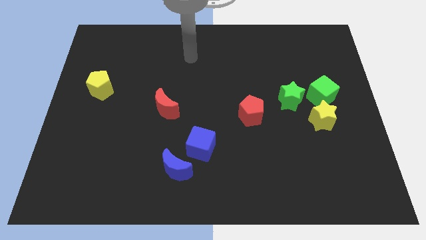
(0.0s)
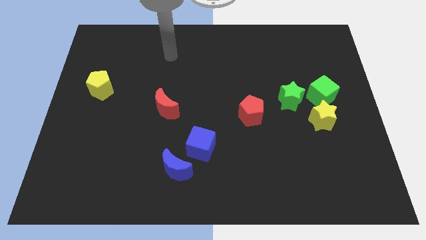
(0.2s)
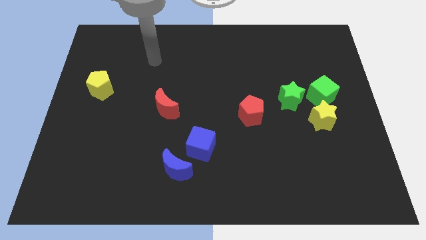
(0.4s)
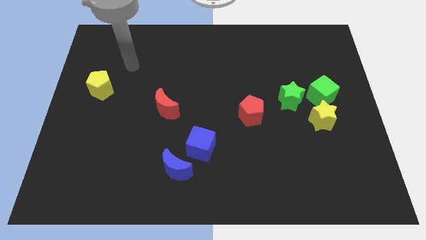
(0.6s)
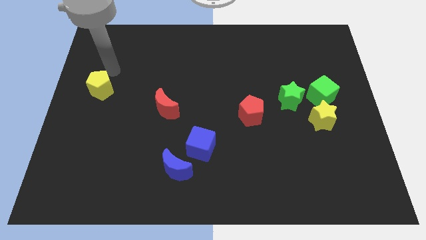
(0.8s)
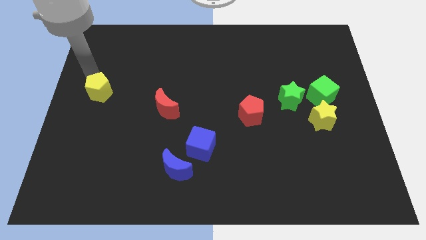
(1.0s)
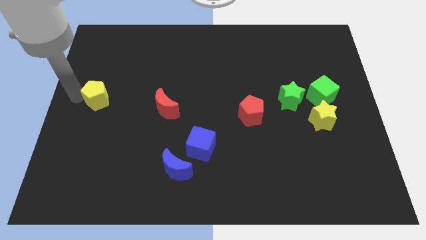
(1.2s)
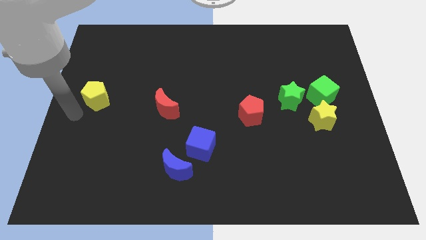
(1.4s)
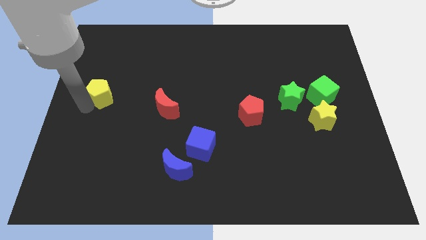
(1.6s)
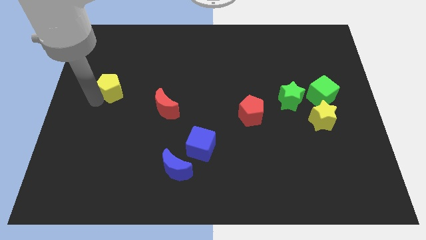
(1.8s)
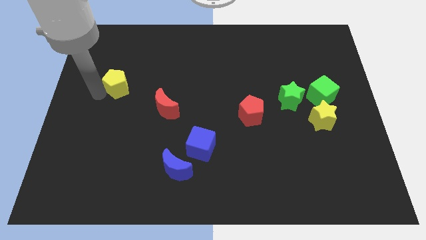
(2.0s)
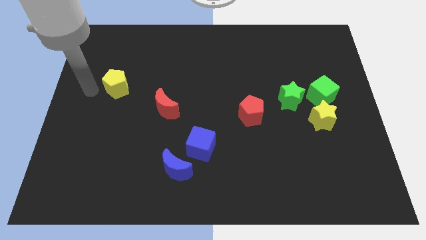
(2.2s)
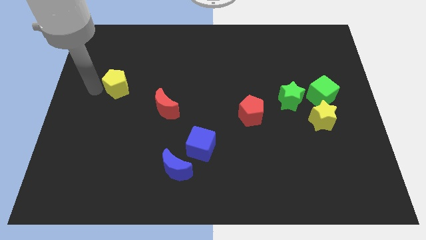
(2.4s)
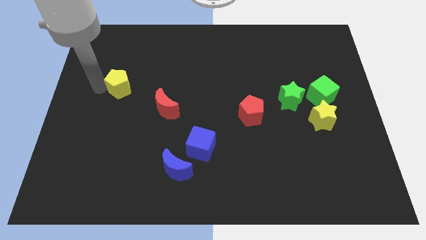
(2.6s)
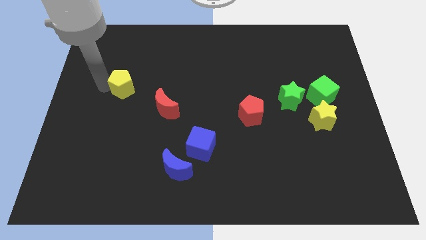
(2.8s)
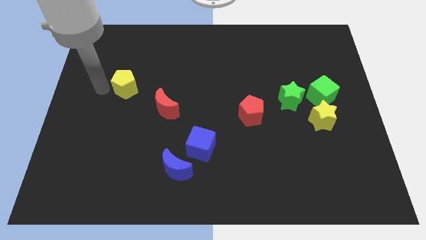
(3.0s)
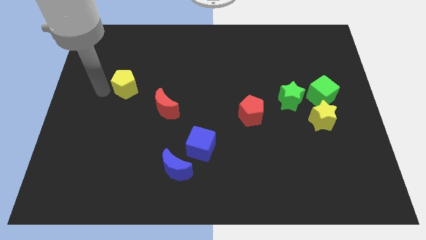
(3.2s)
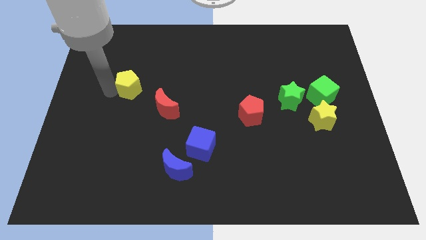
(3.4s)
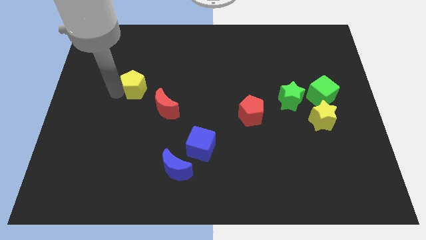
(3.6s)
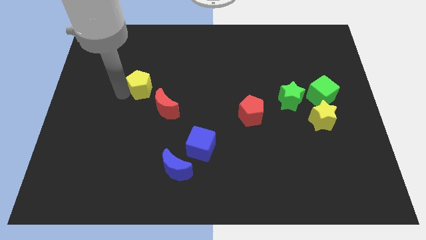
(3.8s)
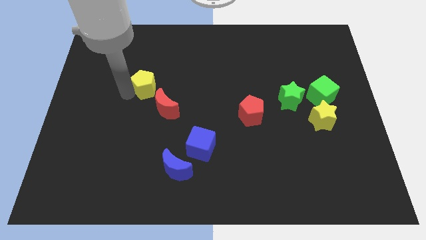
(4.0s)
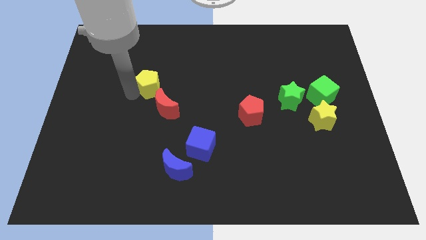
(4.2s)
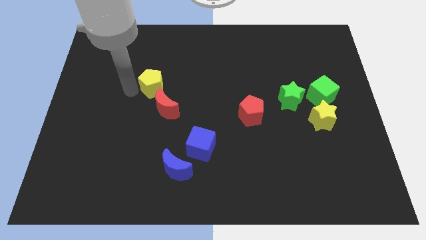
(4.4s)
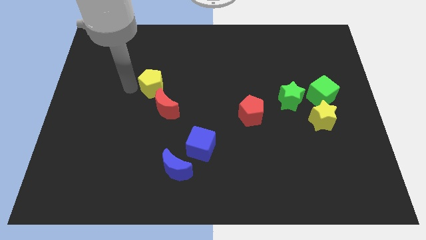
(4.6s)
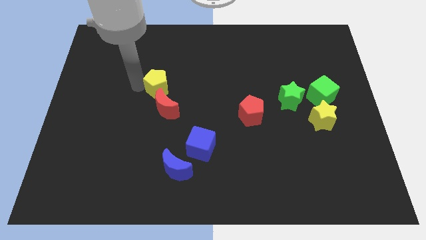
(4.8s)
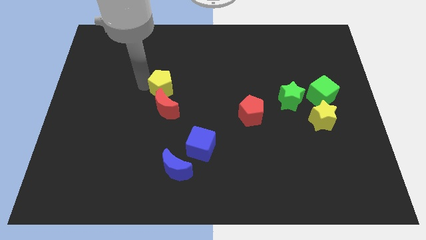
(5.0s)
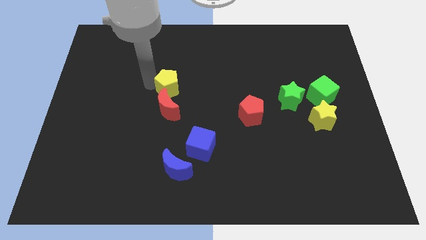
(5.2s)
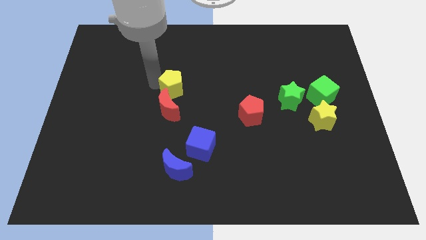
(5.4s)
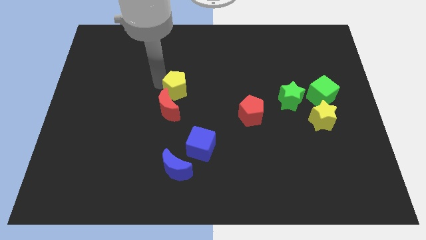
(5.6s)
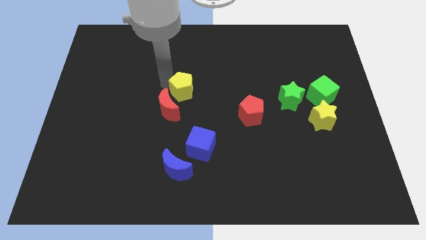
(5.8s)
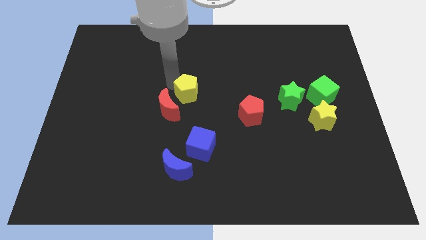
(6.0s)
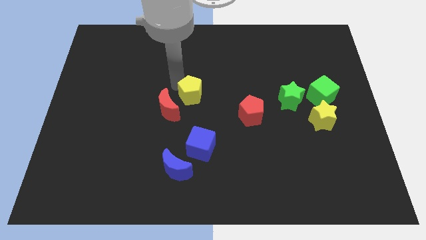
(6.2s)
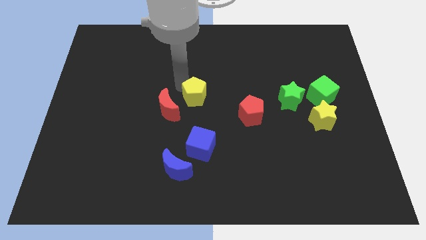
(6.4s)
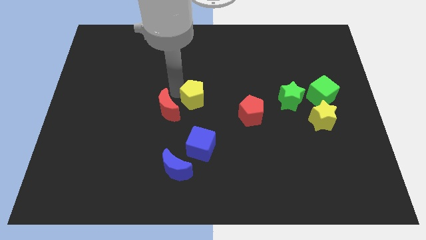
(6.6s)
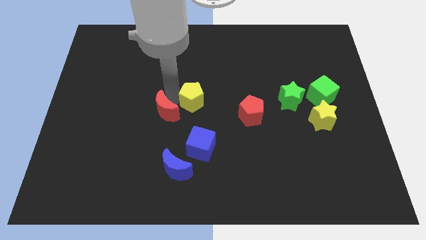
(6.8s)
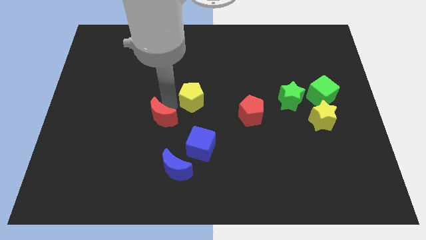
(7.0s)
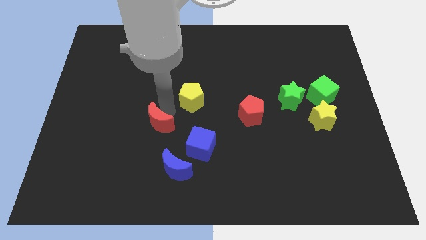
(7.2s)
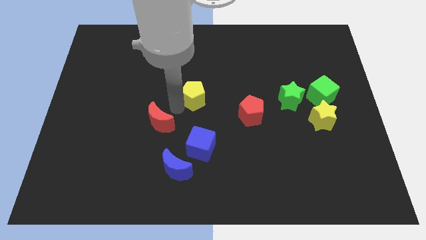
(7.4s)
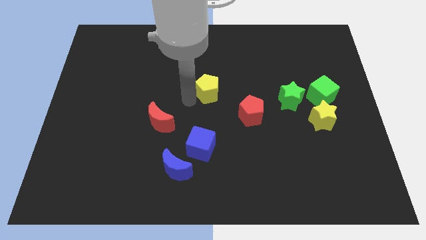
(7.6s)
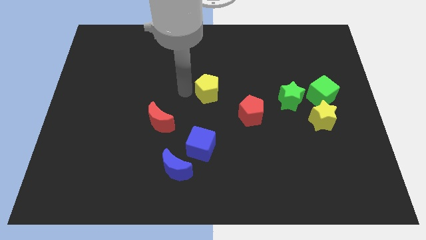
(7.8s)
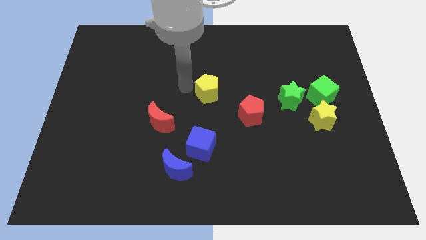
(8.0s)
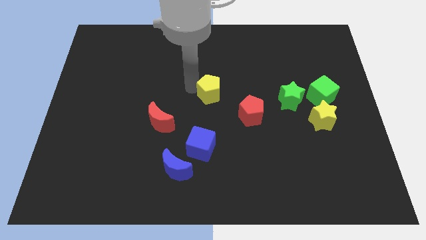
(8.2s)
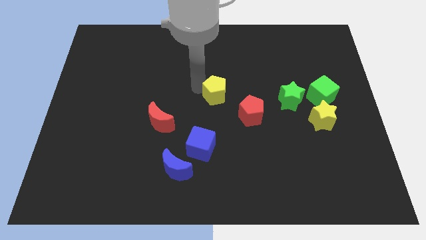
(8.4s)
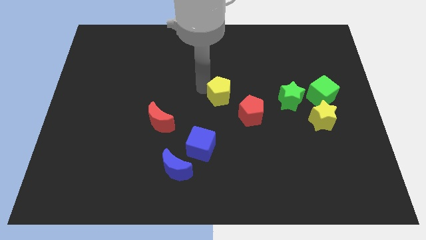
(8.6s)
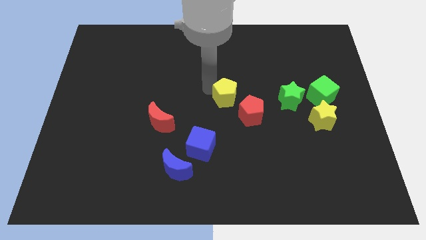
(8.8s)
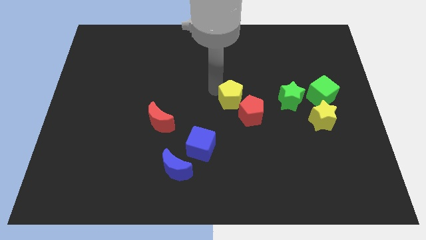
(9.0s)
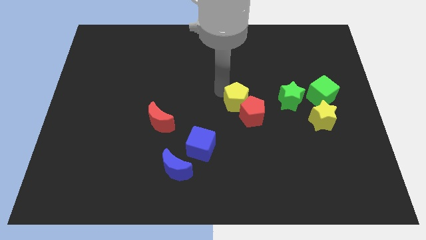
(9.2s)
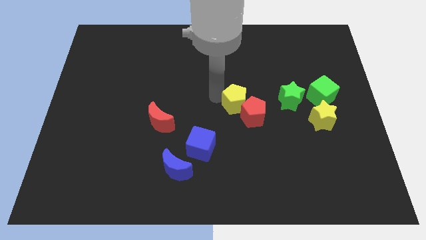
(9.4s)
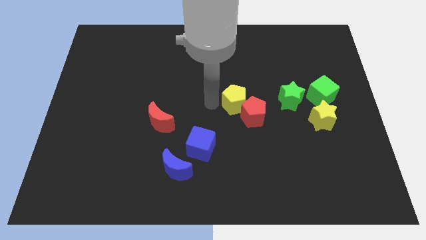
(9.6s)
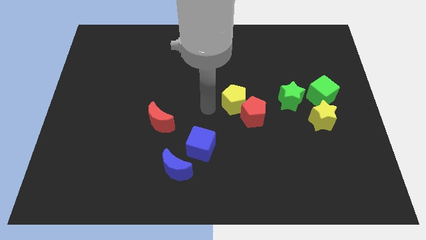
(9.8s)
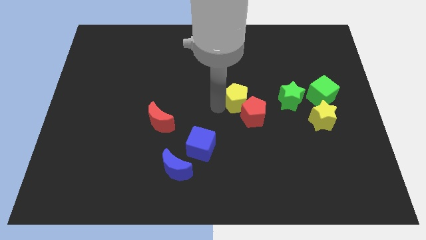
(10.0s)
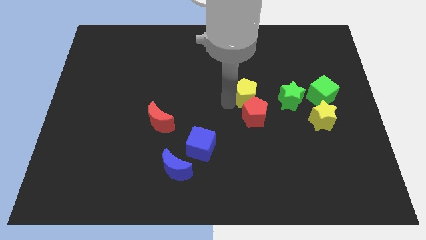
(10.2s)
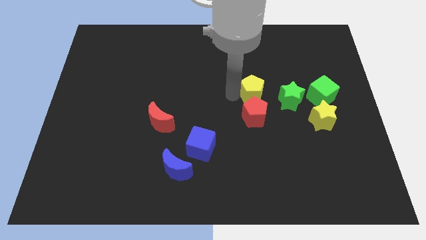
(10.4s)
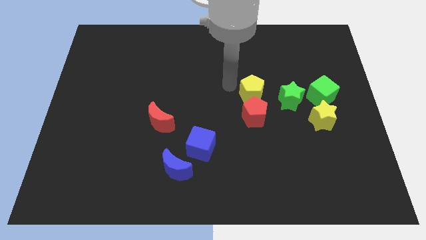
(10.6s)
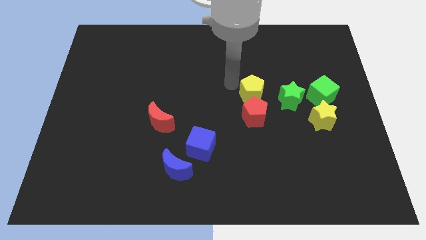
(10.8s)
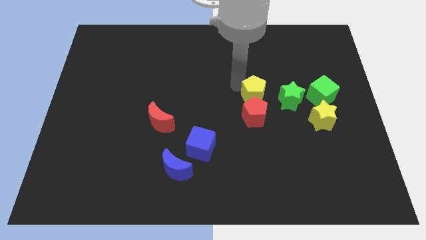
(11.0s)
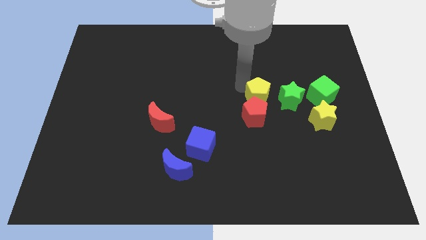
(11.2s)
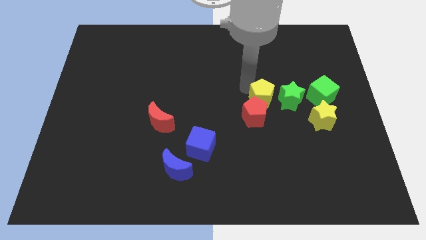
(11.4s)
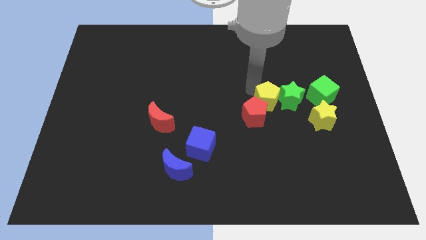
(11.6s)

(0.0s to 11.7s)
move the yellow pentagon to the right side of the red pentagon

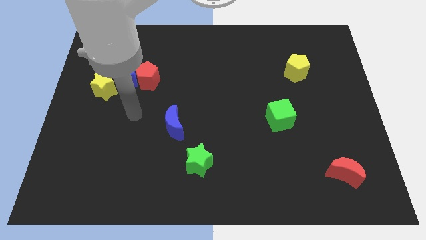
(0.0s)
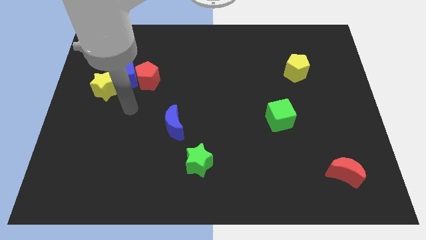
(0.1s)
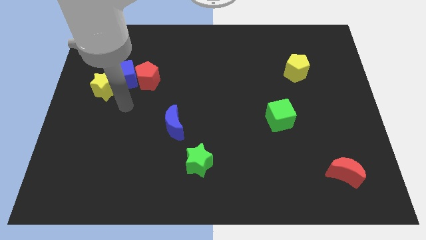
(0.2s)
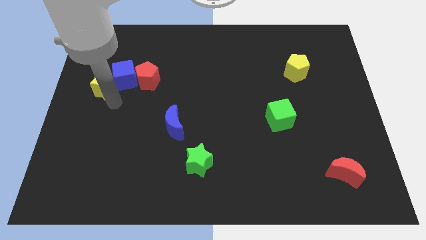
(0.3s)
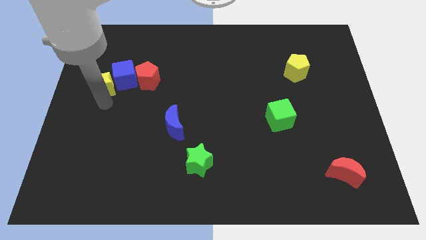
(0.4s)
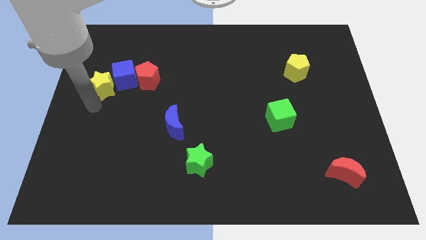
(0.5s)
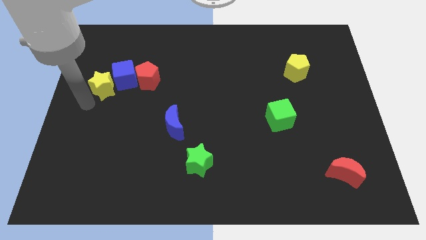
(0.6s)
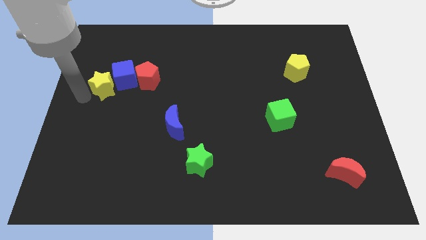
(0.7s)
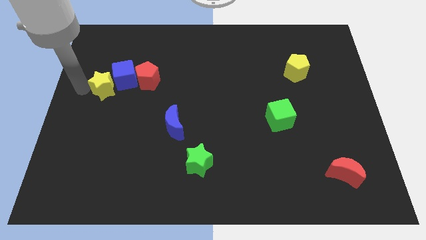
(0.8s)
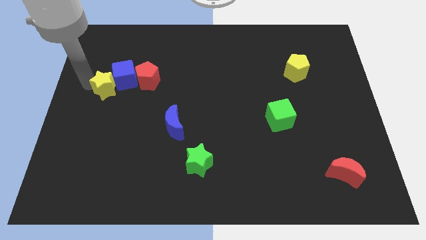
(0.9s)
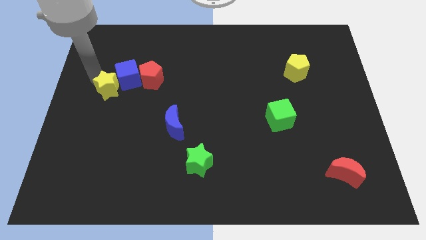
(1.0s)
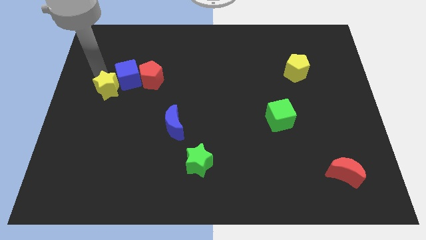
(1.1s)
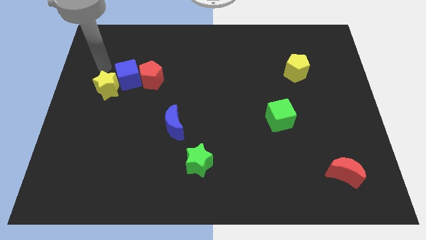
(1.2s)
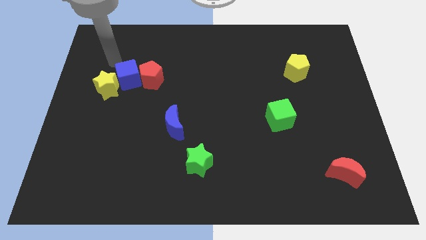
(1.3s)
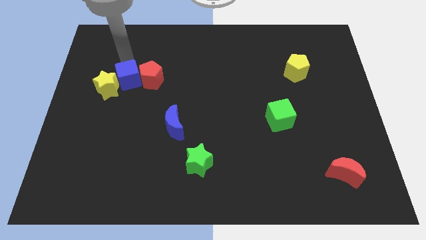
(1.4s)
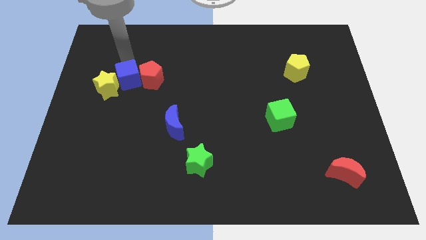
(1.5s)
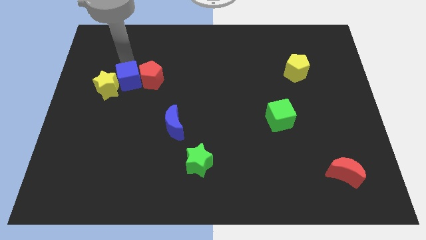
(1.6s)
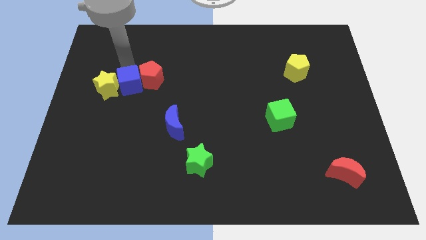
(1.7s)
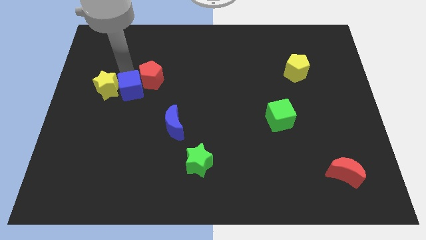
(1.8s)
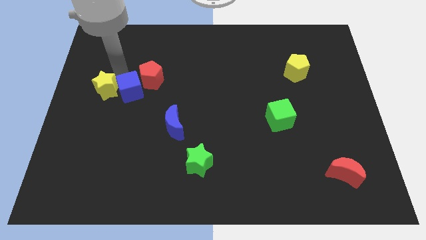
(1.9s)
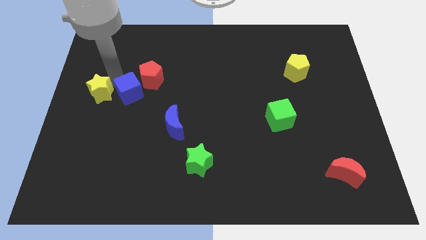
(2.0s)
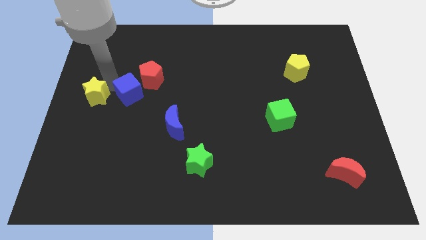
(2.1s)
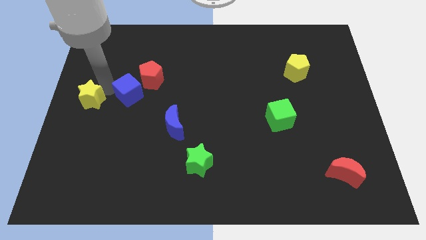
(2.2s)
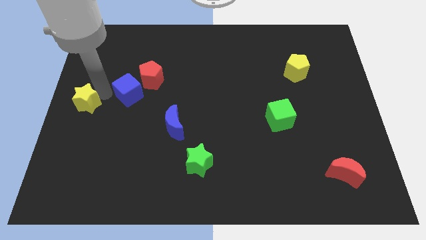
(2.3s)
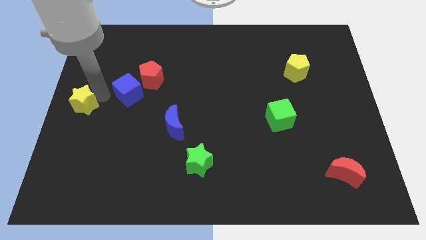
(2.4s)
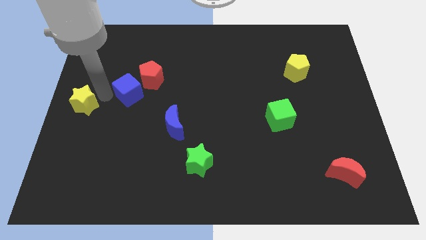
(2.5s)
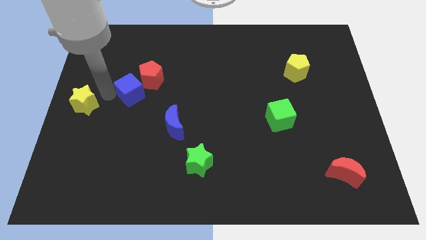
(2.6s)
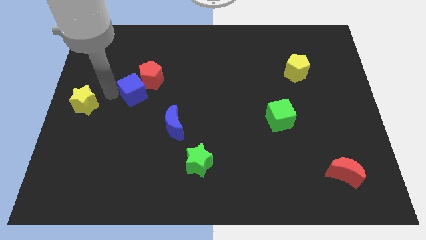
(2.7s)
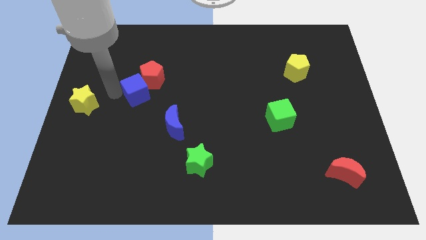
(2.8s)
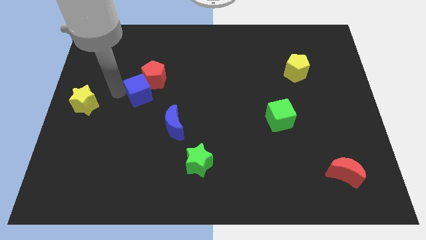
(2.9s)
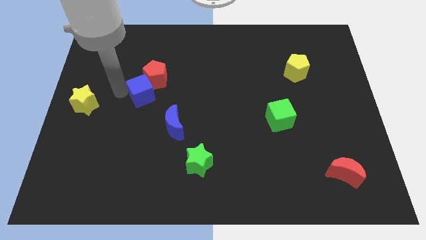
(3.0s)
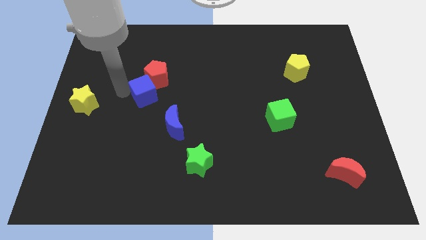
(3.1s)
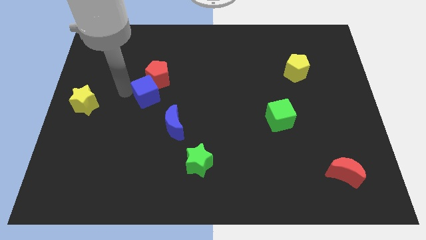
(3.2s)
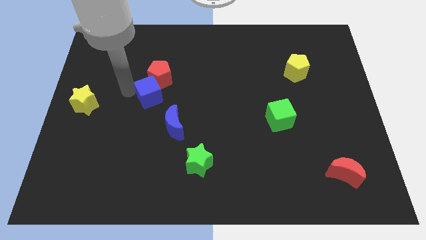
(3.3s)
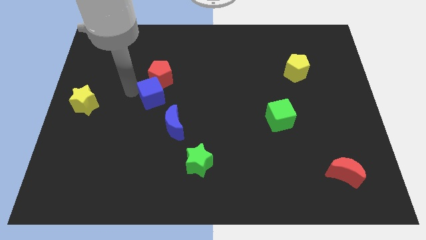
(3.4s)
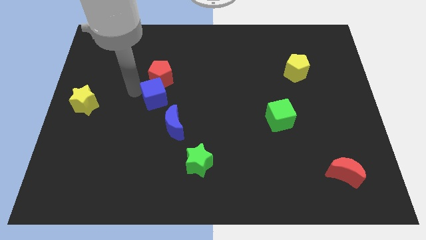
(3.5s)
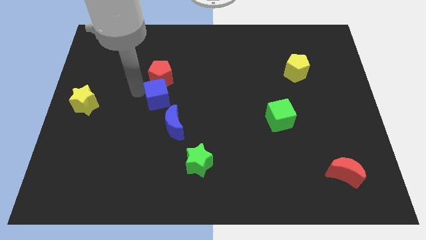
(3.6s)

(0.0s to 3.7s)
move the blue cube above the blue moon
